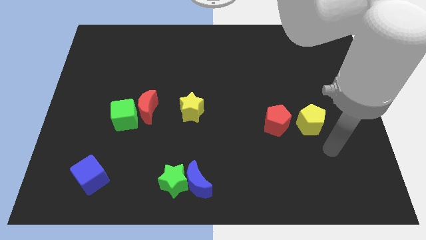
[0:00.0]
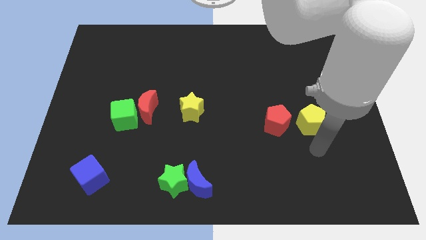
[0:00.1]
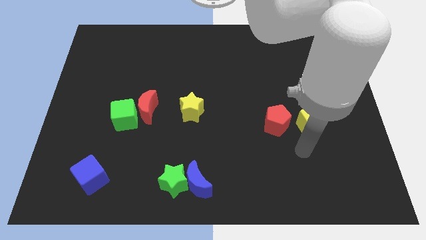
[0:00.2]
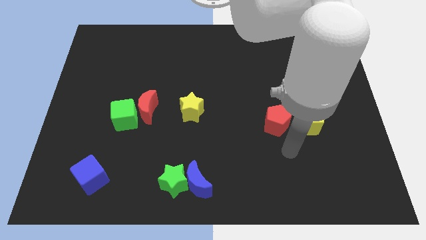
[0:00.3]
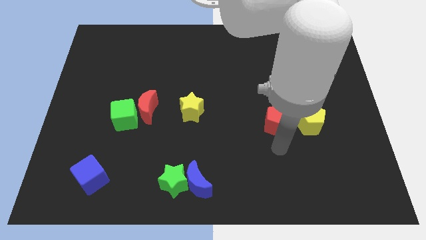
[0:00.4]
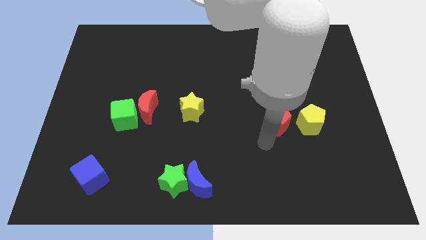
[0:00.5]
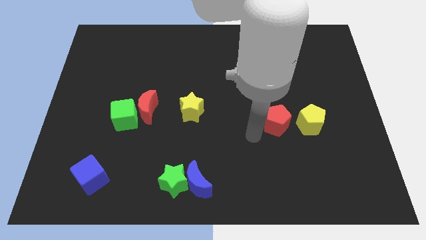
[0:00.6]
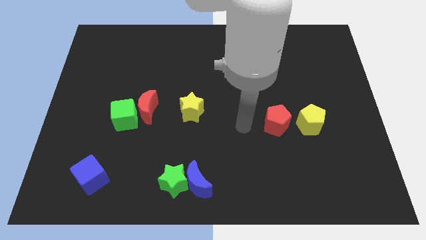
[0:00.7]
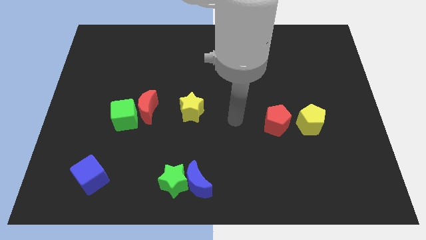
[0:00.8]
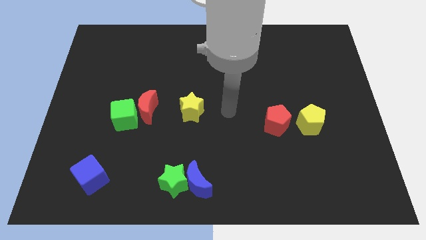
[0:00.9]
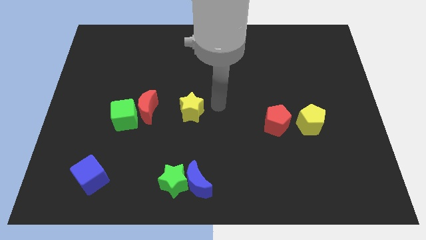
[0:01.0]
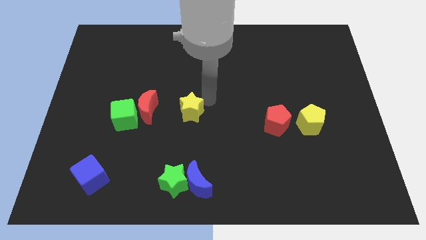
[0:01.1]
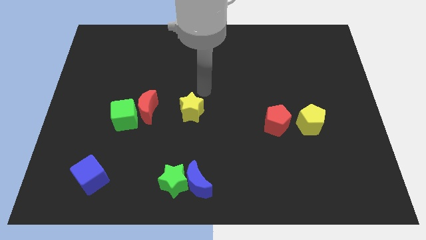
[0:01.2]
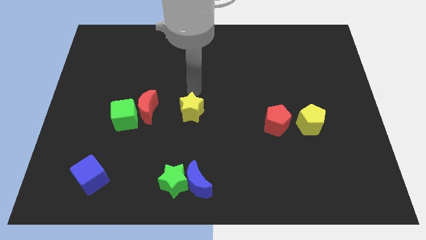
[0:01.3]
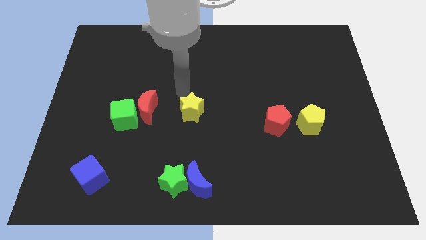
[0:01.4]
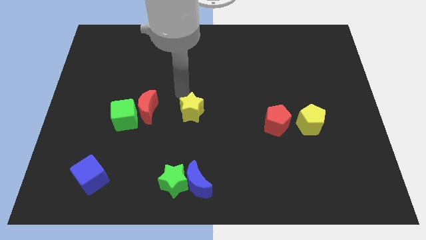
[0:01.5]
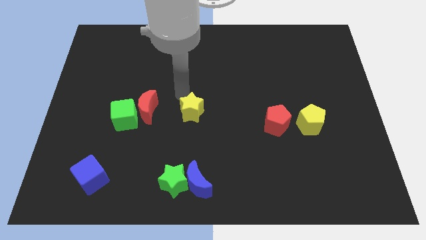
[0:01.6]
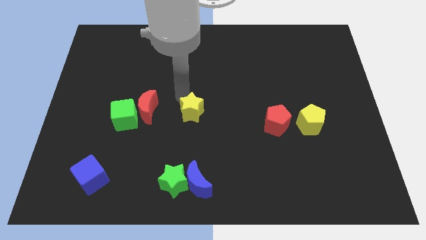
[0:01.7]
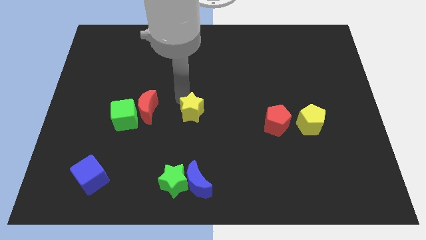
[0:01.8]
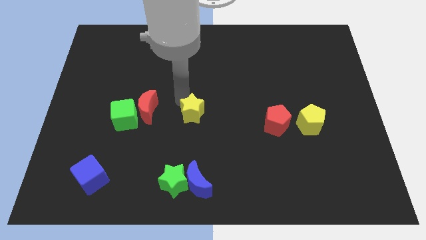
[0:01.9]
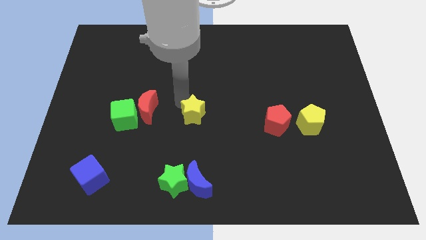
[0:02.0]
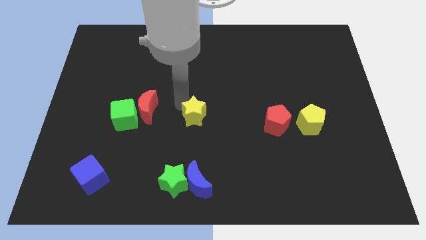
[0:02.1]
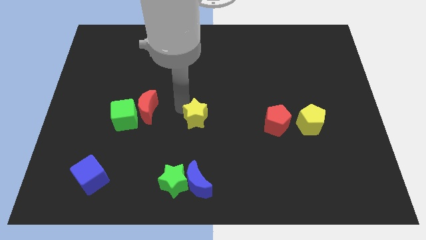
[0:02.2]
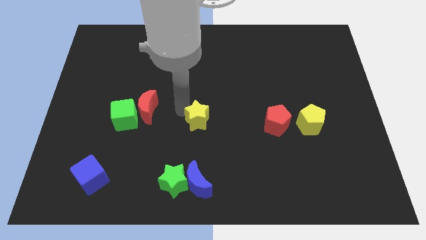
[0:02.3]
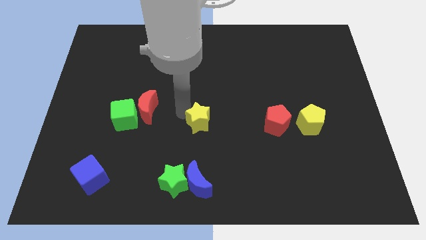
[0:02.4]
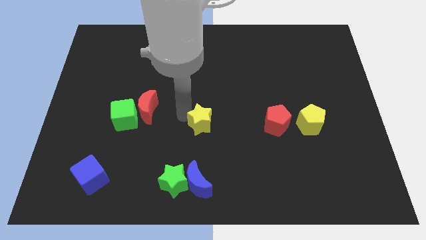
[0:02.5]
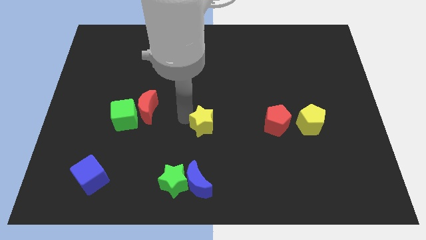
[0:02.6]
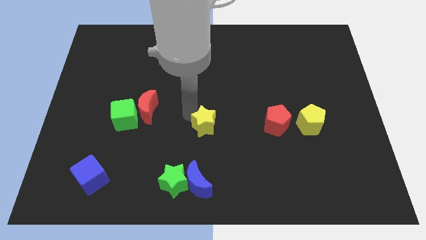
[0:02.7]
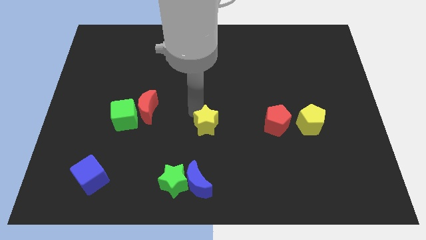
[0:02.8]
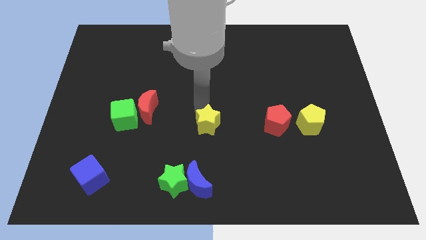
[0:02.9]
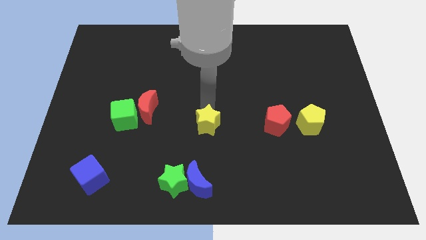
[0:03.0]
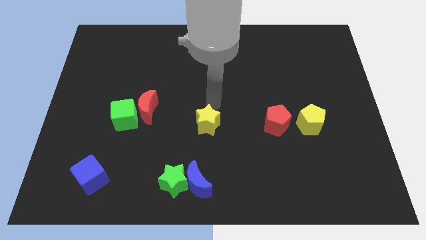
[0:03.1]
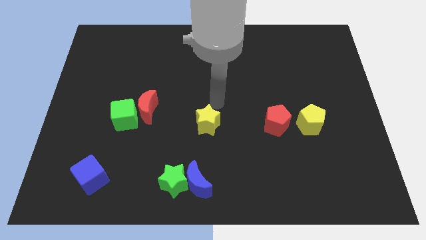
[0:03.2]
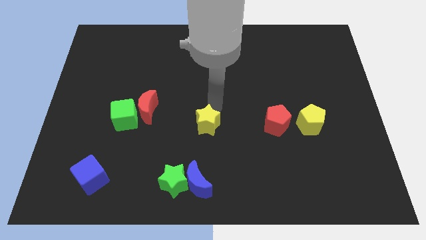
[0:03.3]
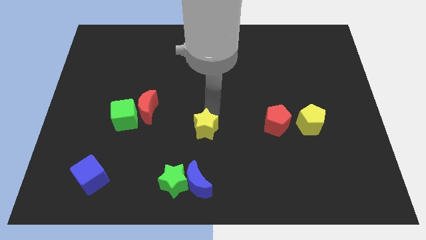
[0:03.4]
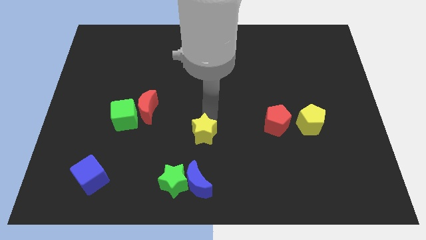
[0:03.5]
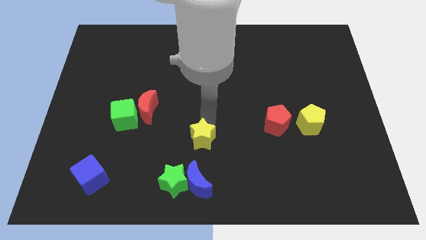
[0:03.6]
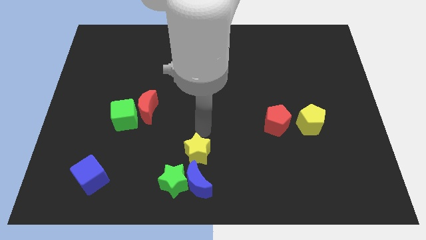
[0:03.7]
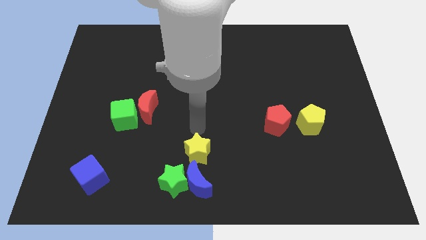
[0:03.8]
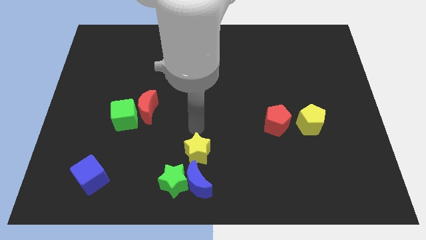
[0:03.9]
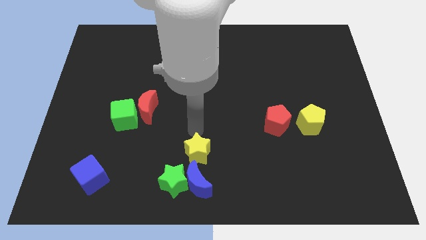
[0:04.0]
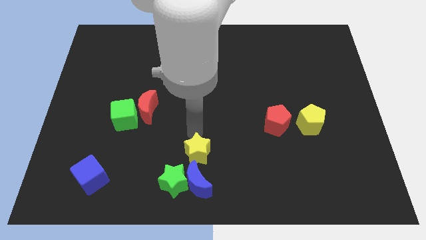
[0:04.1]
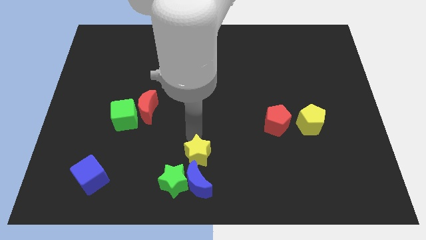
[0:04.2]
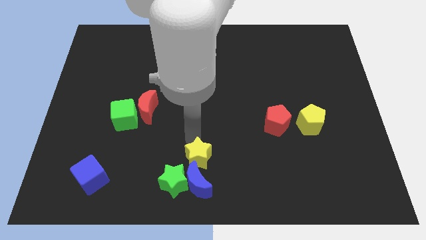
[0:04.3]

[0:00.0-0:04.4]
slide the yellow star towards the blue moon

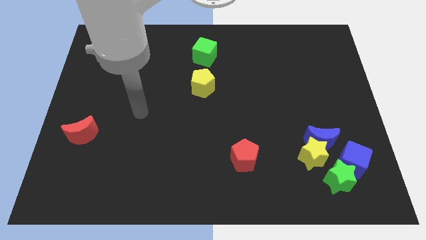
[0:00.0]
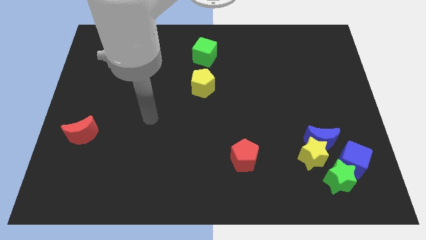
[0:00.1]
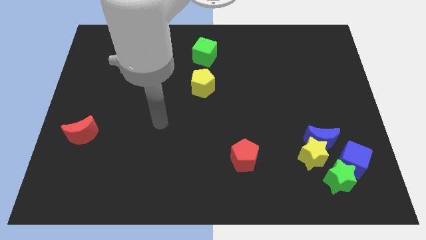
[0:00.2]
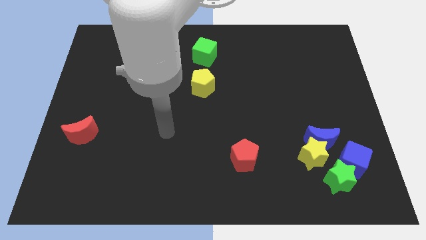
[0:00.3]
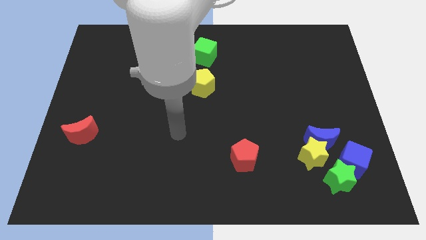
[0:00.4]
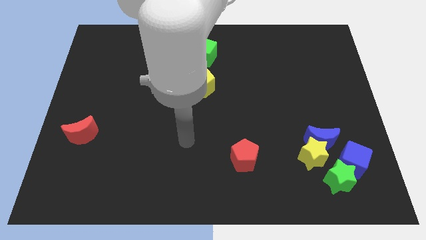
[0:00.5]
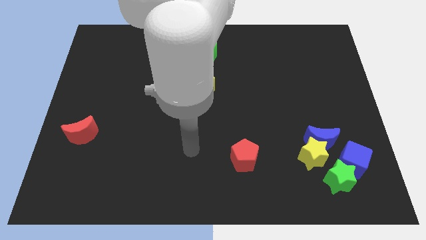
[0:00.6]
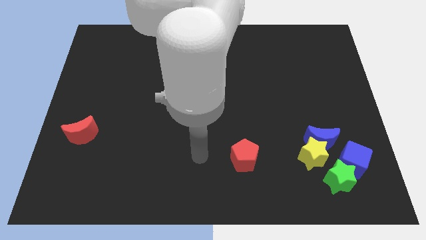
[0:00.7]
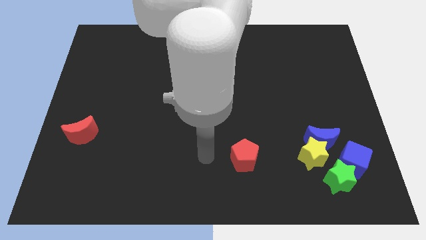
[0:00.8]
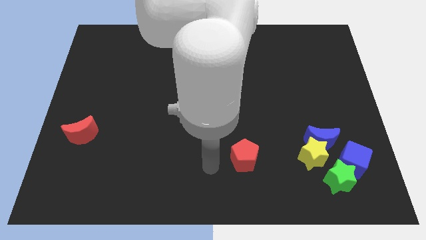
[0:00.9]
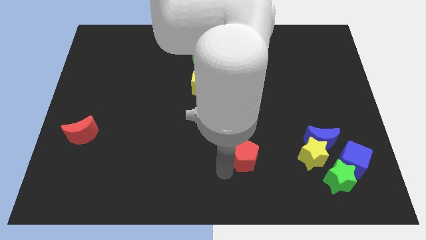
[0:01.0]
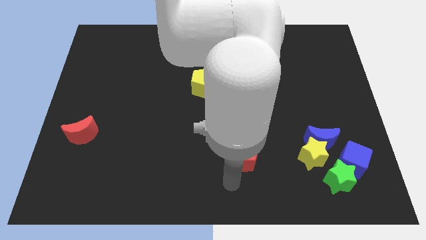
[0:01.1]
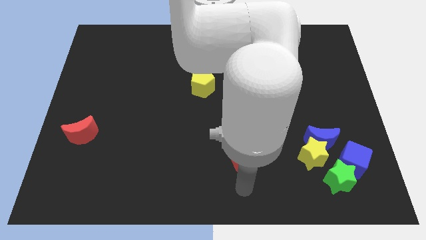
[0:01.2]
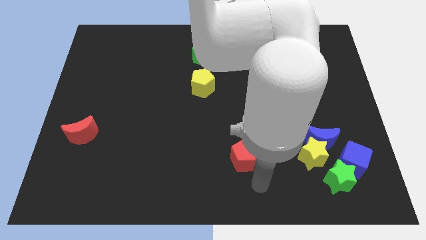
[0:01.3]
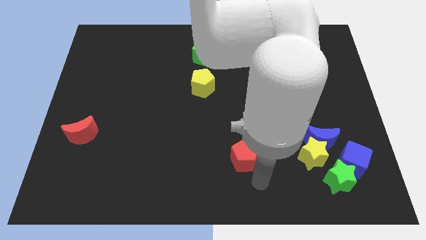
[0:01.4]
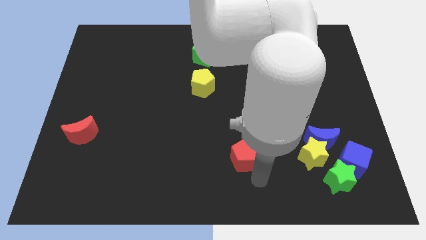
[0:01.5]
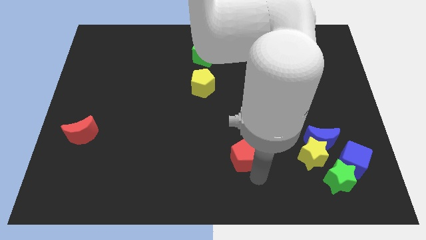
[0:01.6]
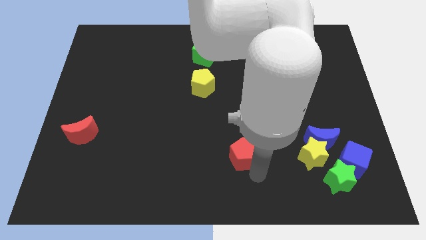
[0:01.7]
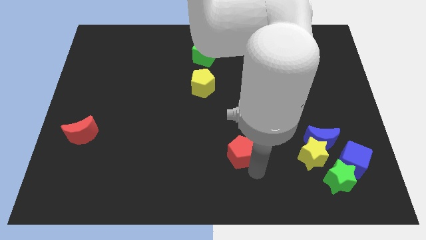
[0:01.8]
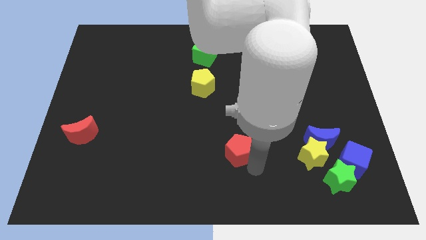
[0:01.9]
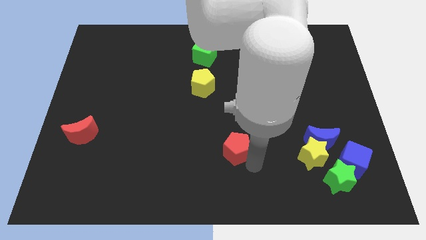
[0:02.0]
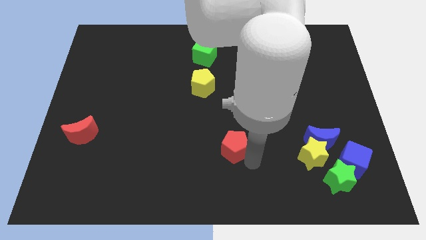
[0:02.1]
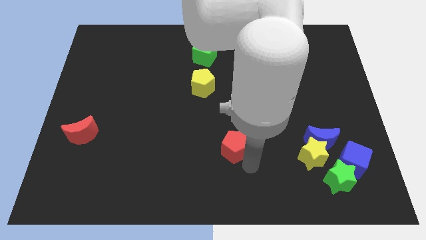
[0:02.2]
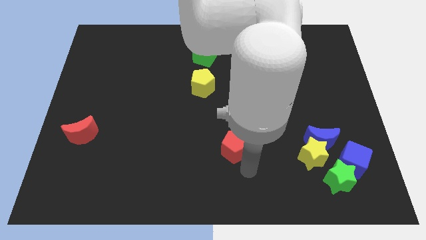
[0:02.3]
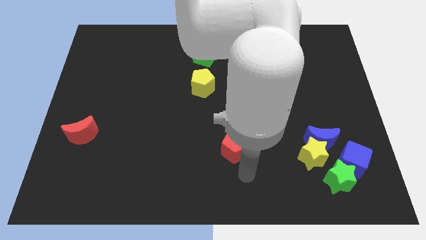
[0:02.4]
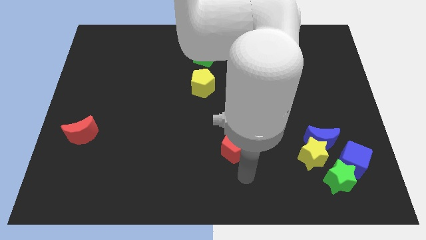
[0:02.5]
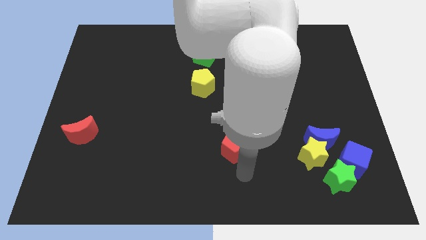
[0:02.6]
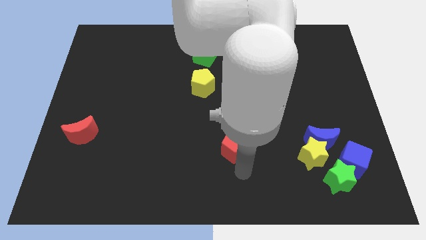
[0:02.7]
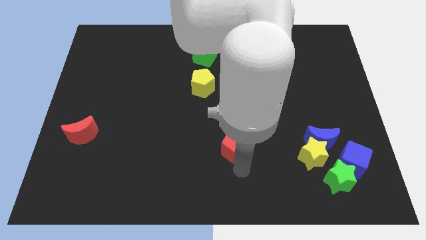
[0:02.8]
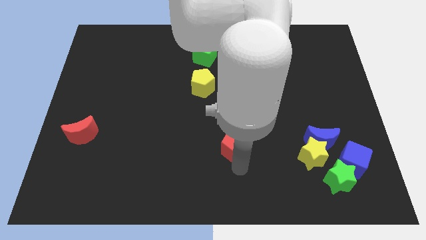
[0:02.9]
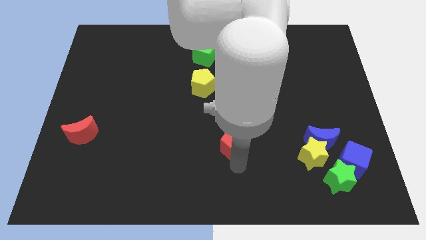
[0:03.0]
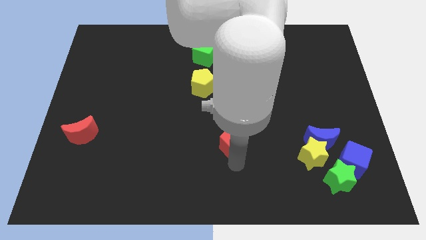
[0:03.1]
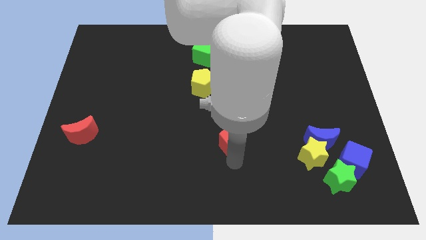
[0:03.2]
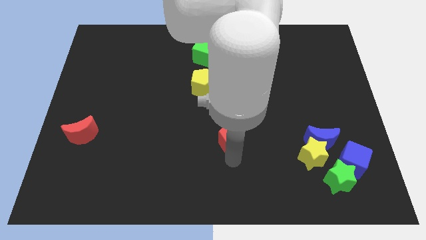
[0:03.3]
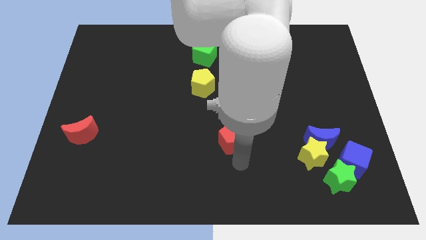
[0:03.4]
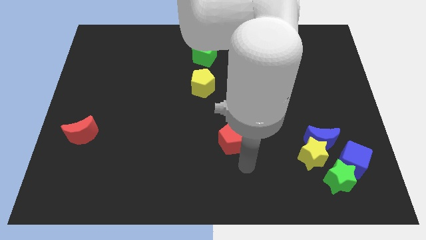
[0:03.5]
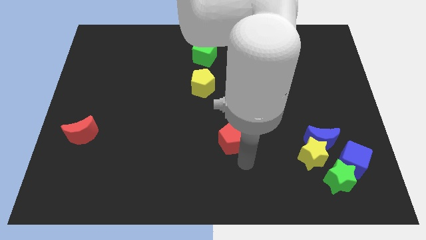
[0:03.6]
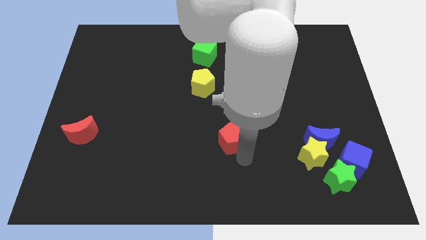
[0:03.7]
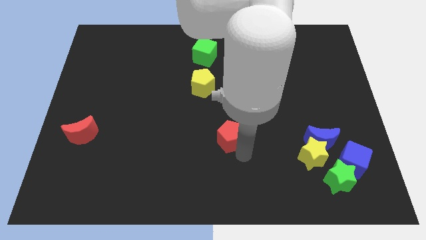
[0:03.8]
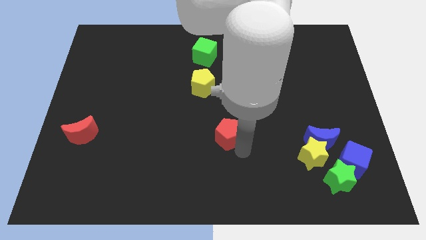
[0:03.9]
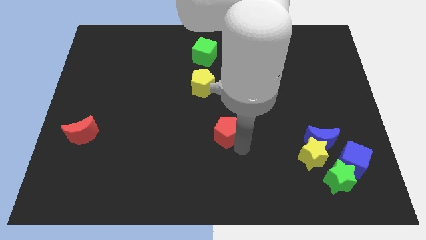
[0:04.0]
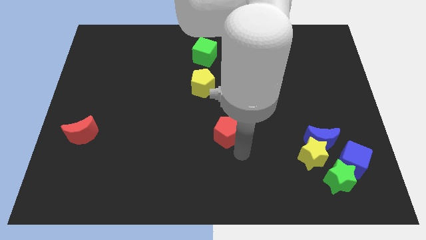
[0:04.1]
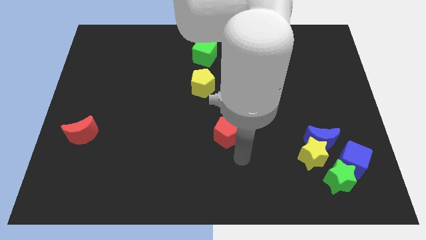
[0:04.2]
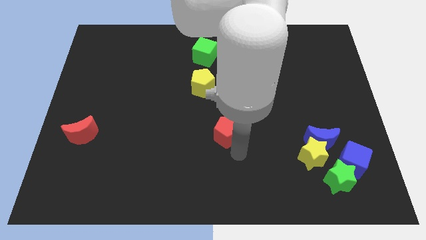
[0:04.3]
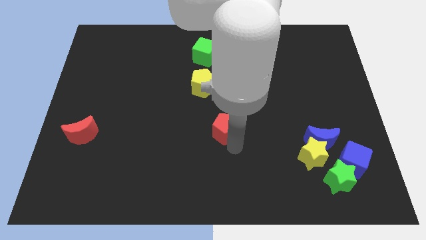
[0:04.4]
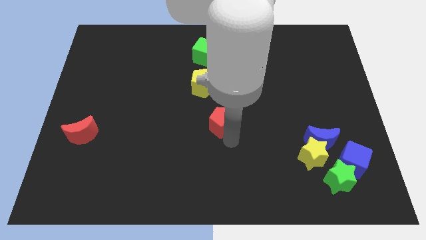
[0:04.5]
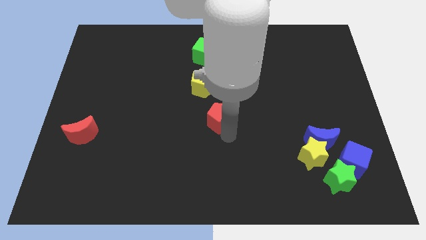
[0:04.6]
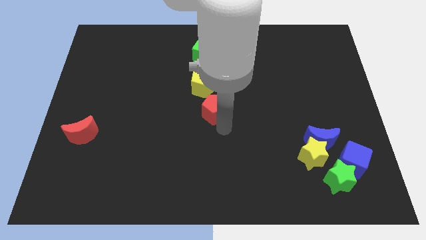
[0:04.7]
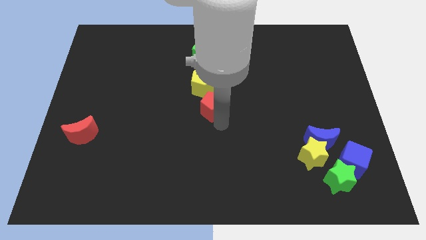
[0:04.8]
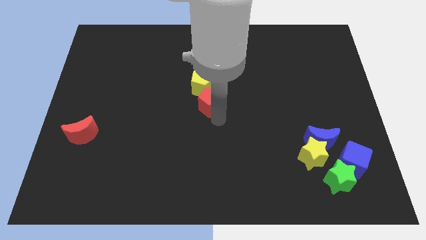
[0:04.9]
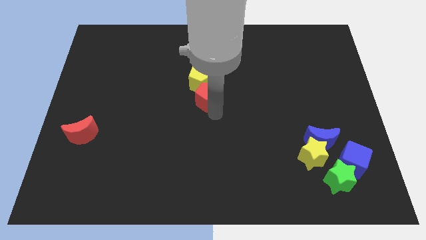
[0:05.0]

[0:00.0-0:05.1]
put the red pentagon towards the yellow pentagon
